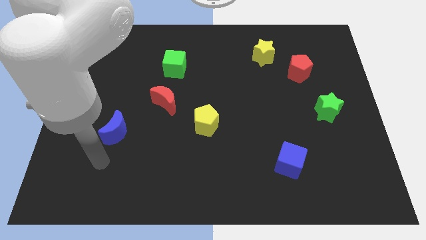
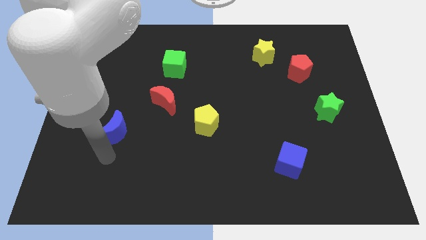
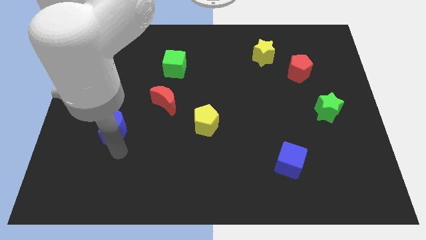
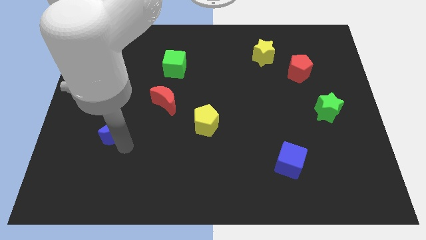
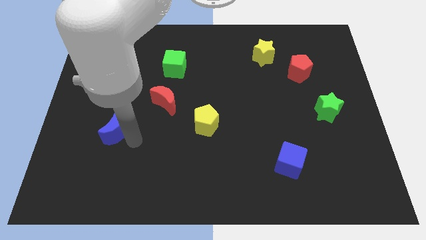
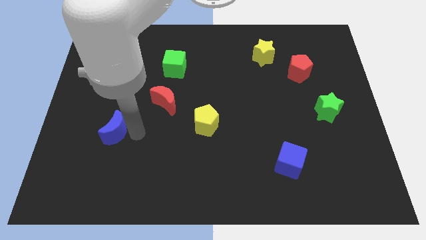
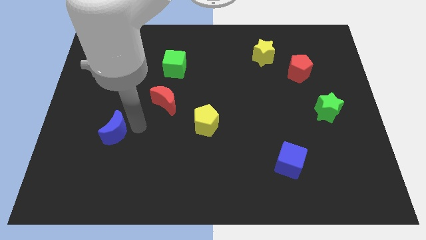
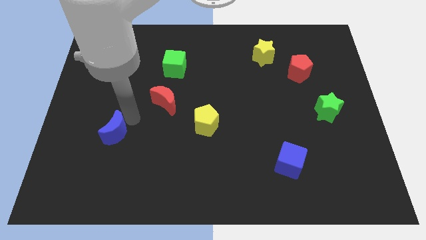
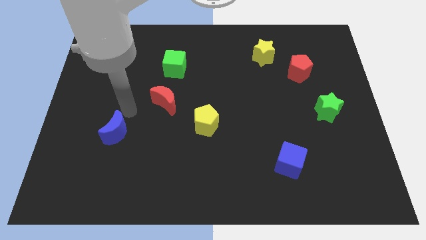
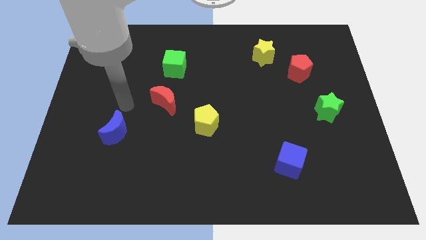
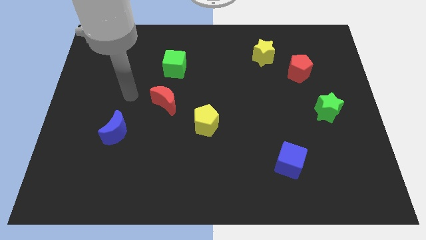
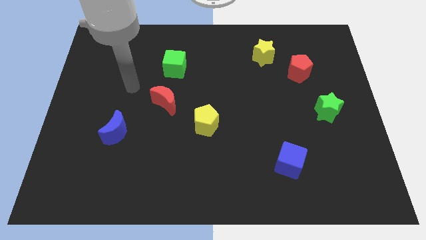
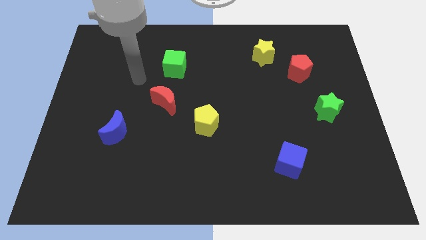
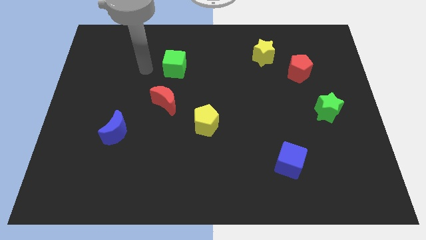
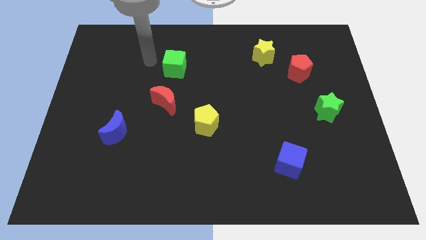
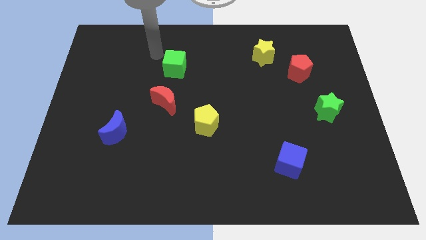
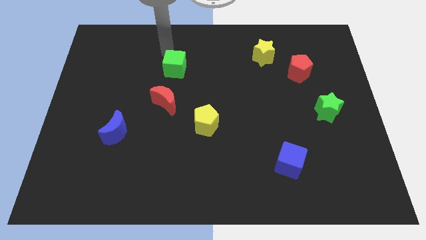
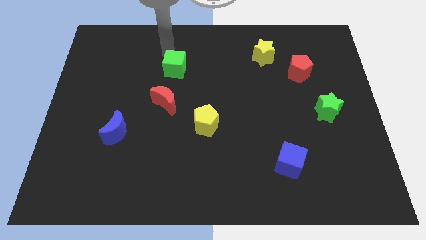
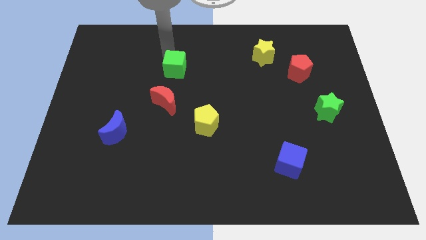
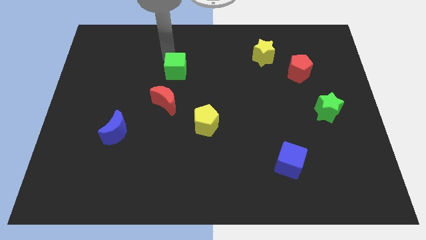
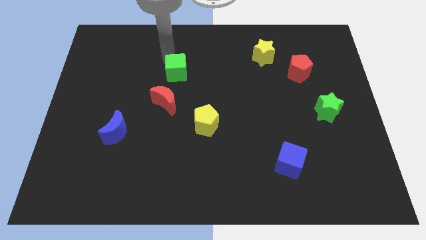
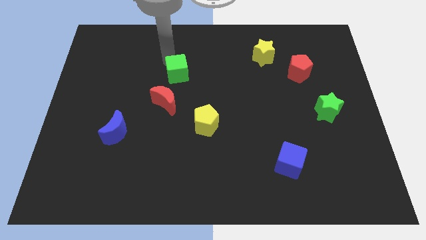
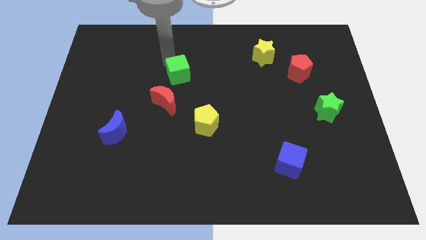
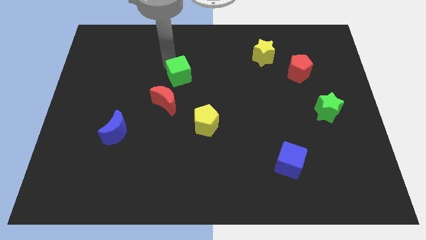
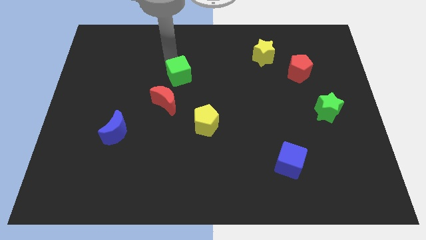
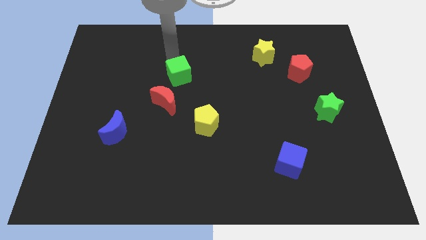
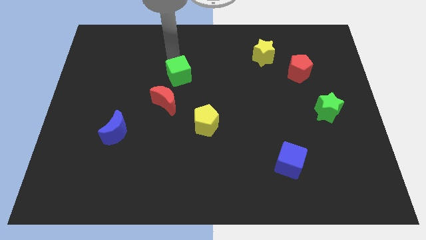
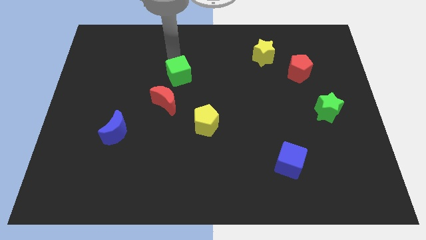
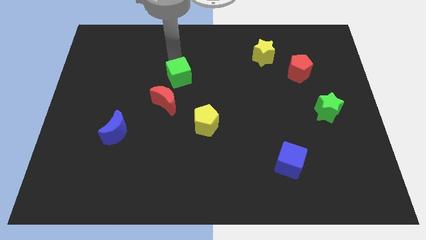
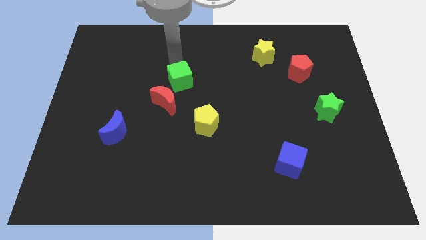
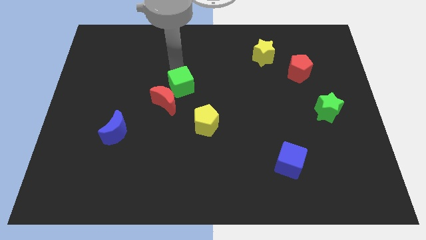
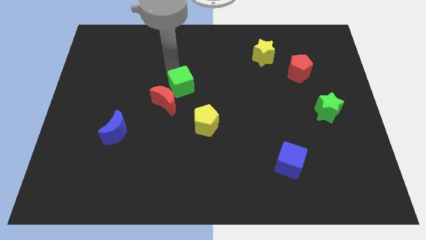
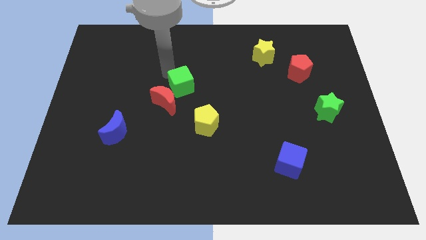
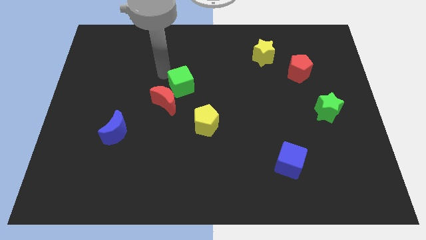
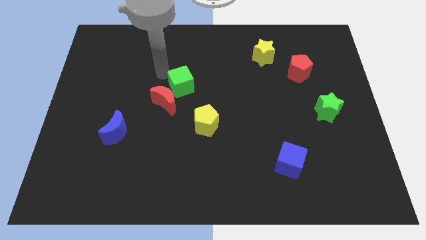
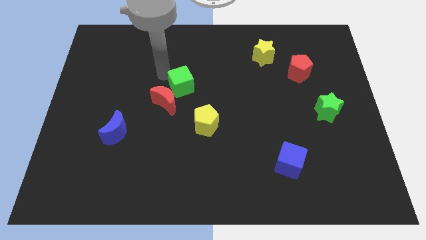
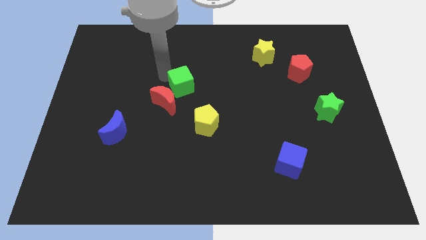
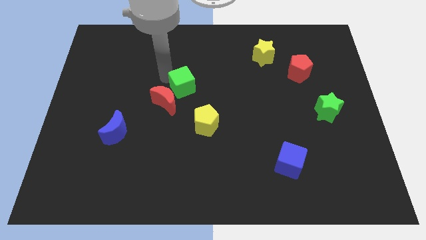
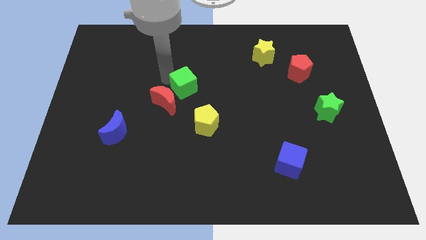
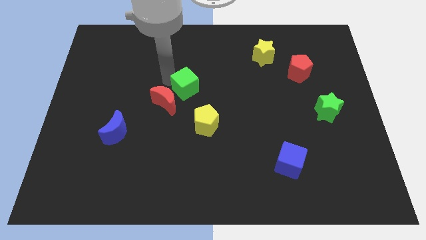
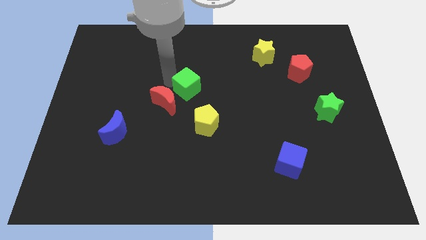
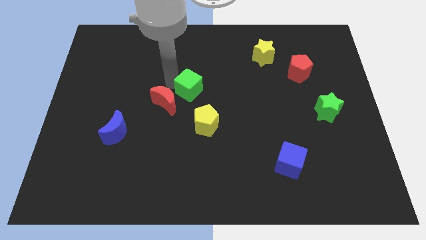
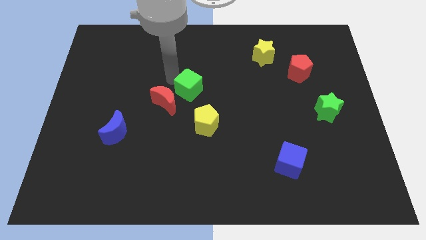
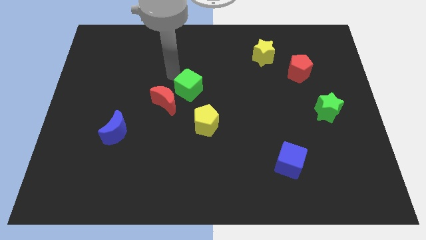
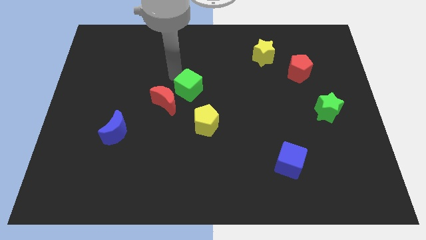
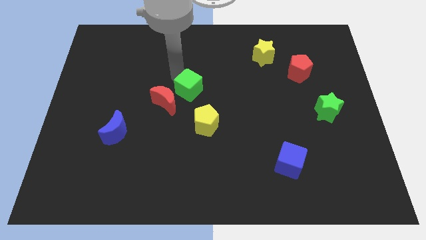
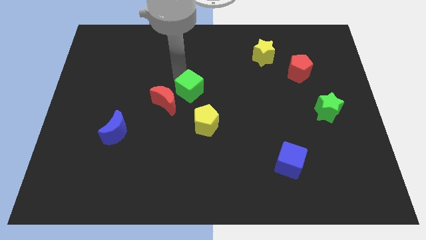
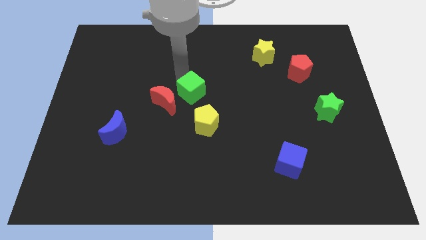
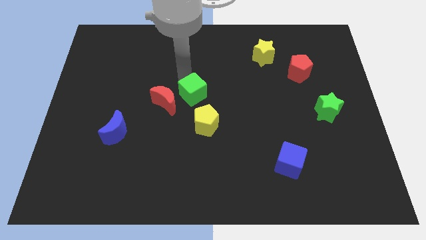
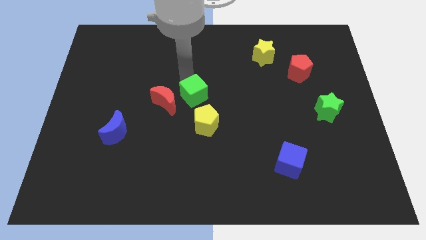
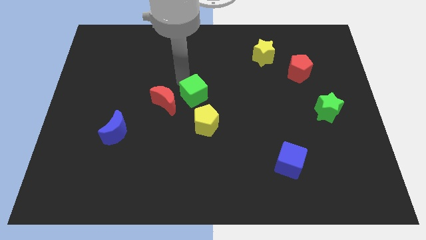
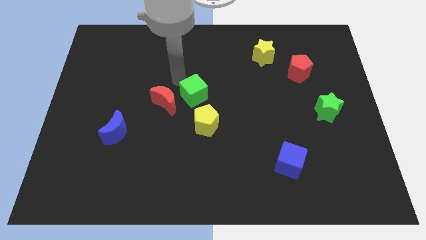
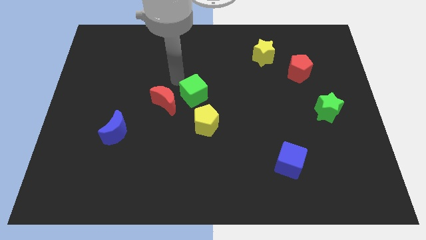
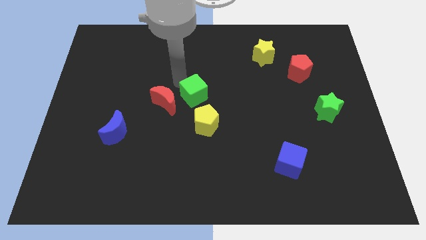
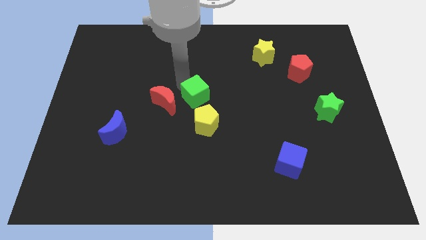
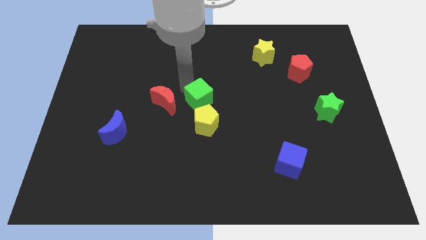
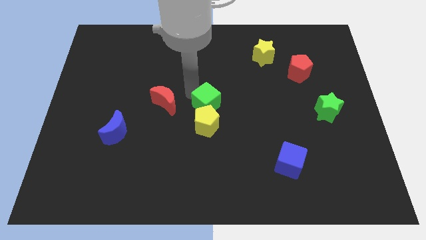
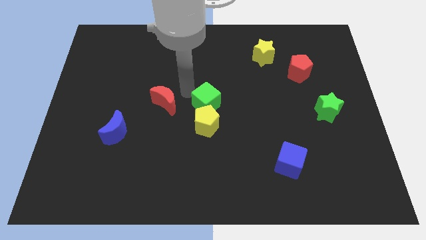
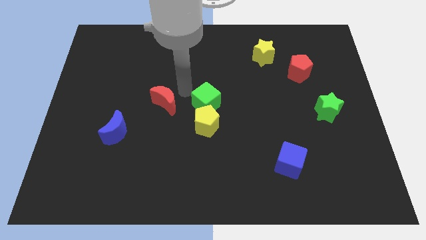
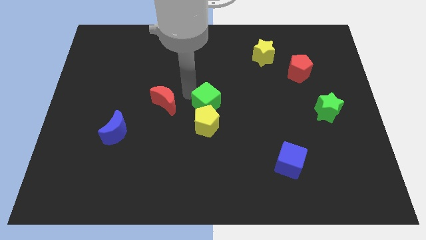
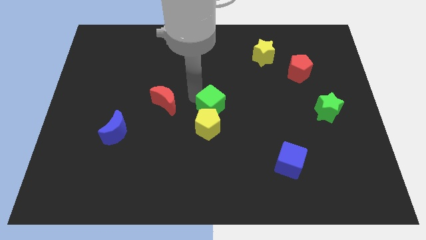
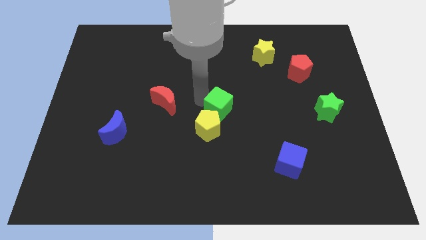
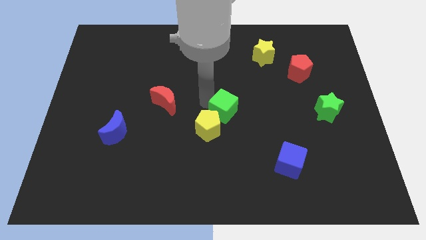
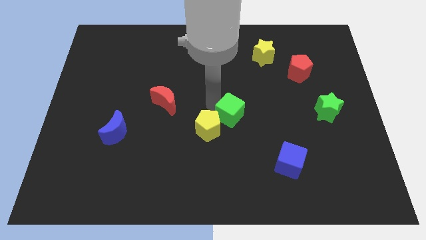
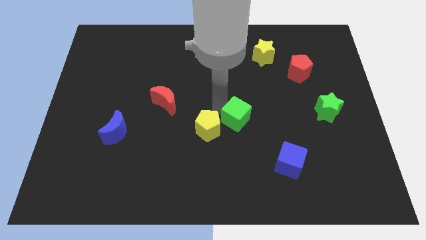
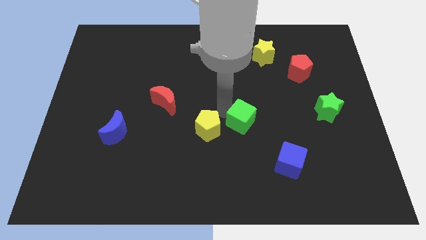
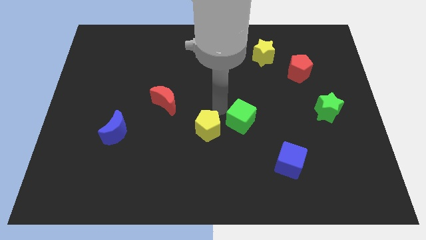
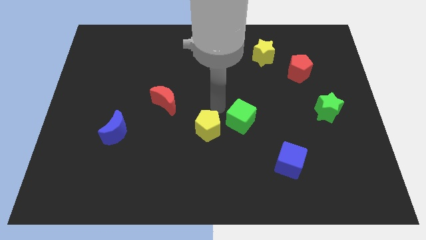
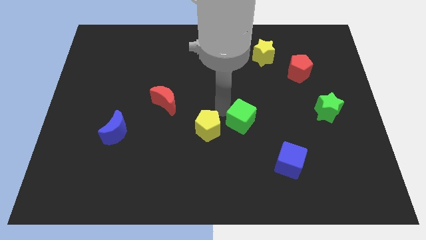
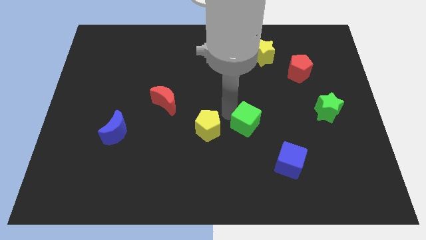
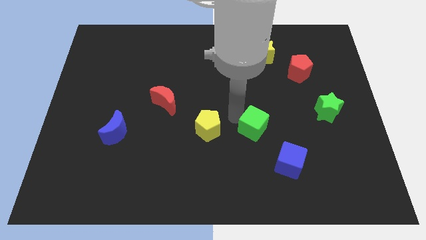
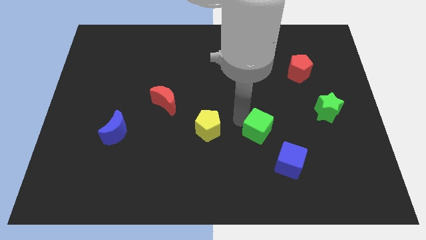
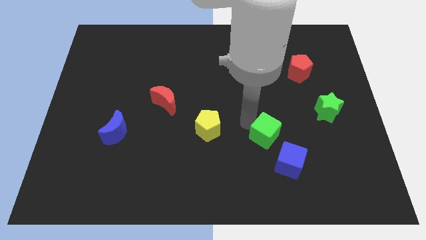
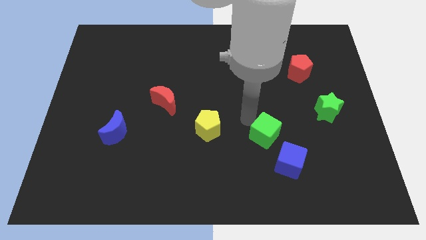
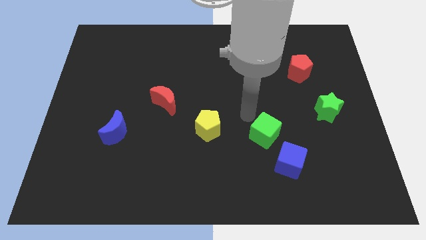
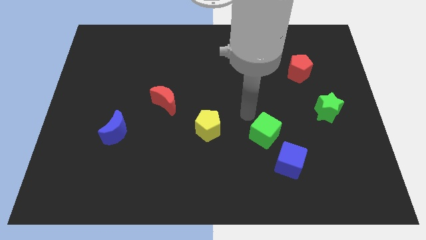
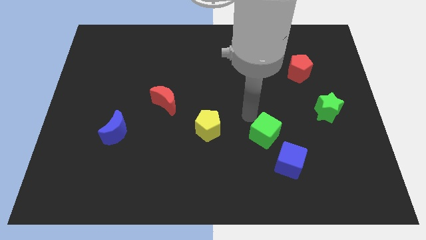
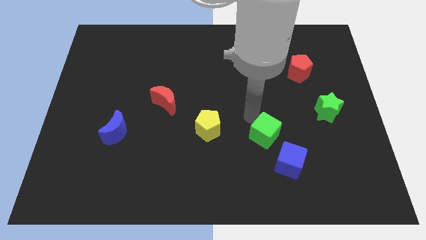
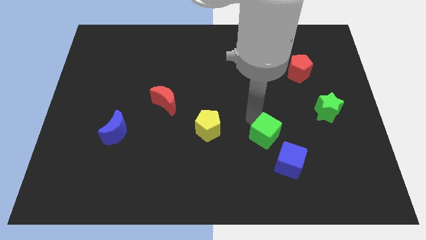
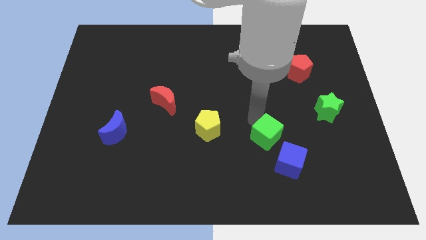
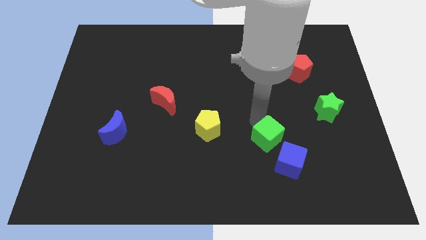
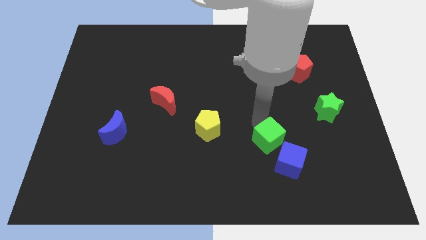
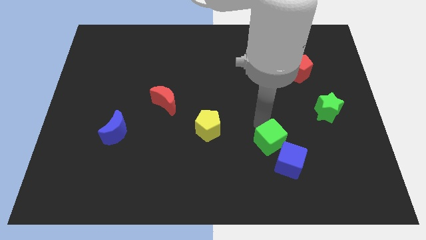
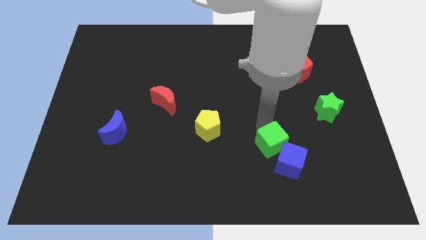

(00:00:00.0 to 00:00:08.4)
move the green cube close to the blue cube
